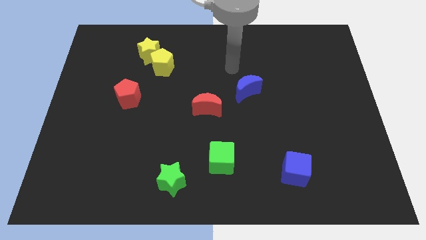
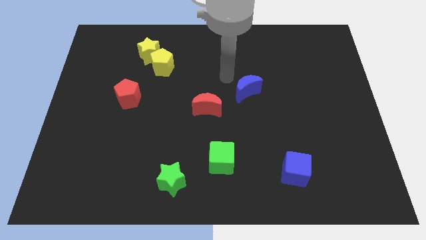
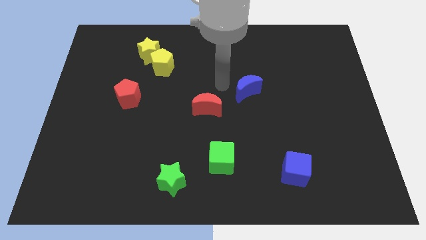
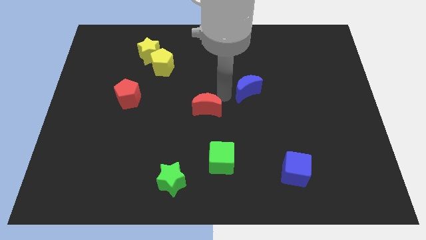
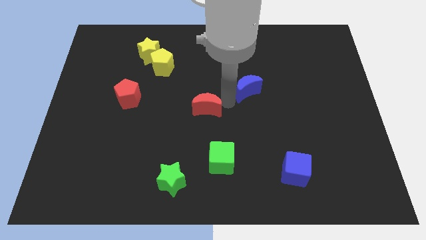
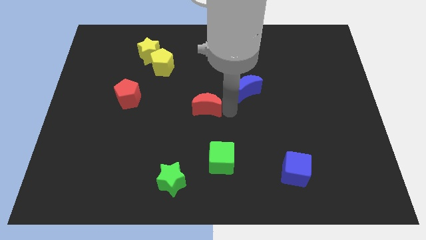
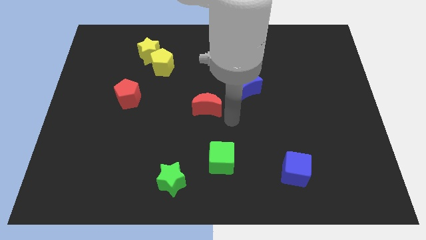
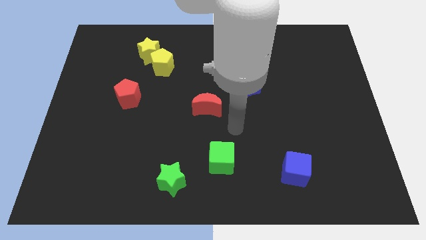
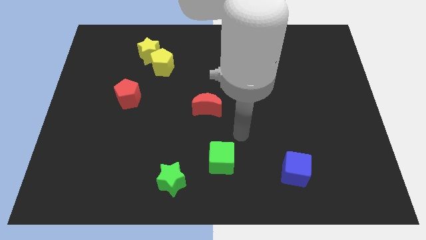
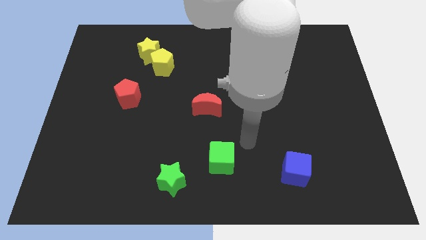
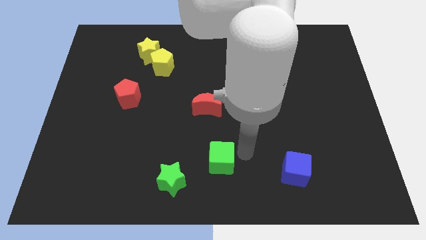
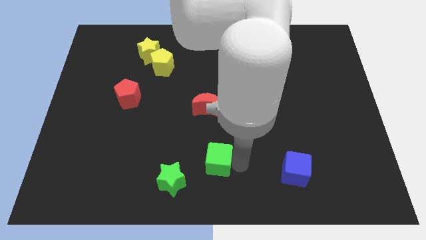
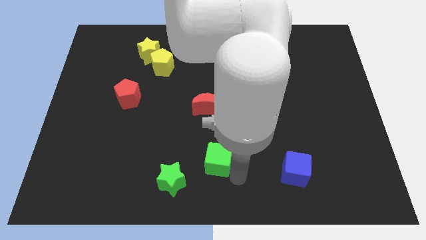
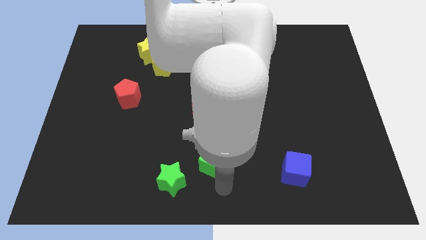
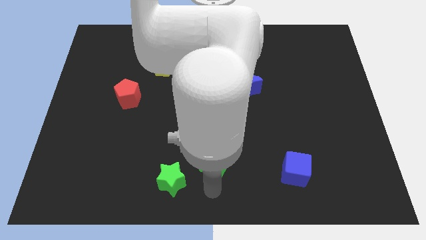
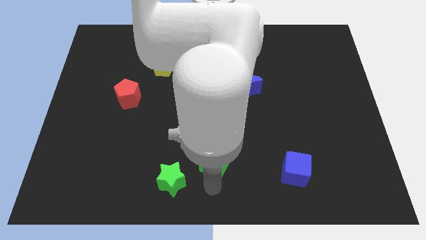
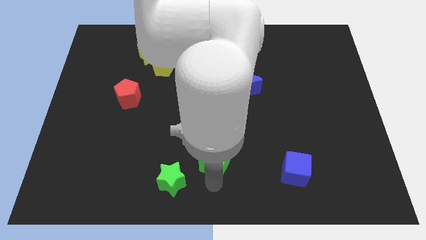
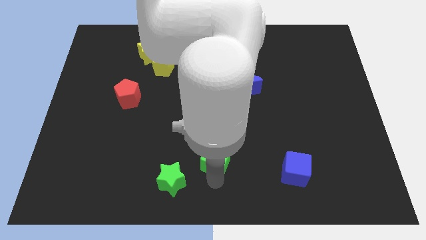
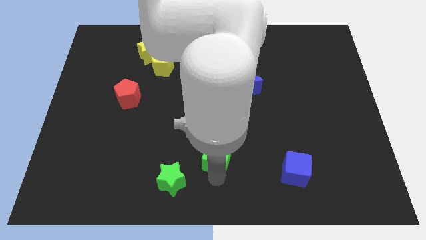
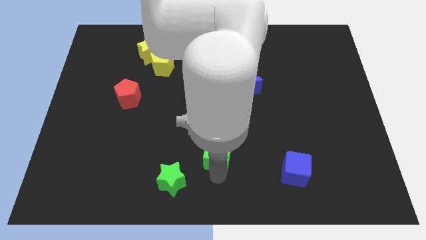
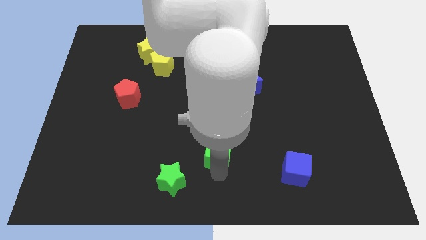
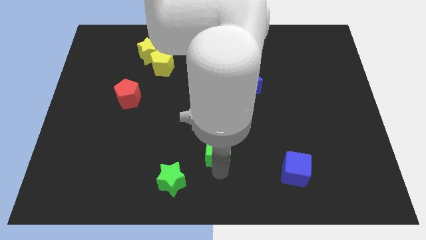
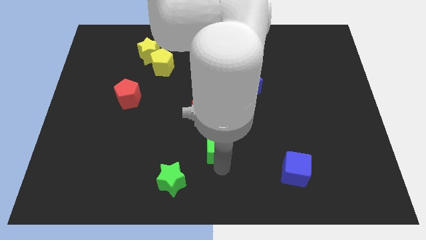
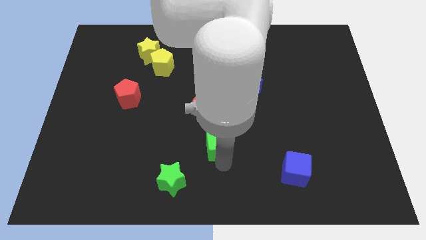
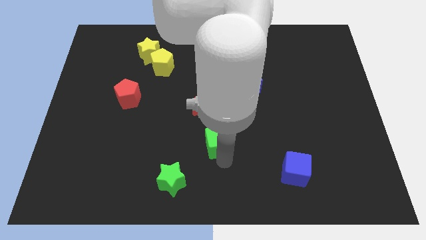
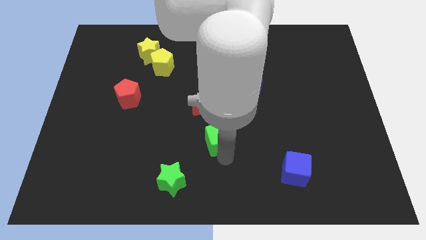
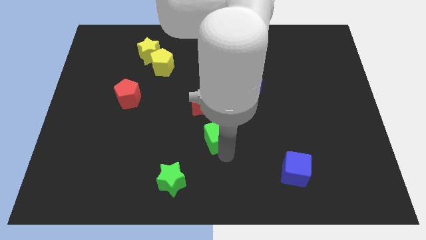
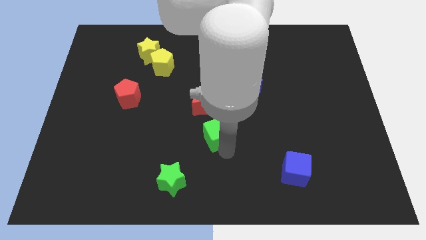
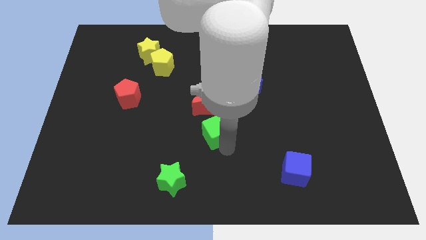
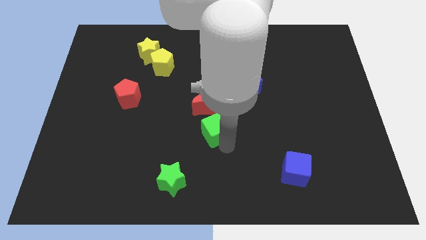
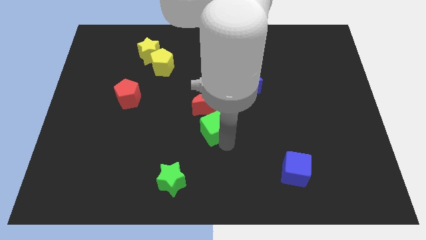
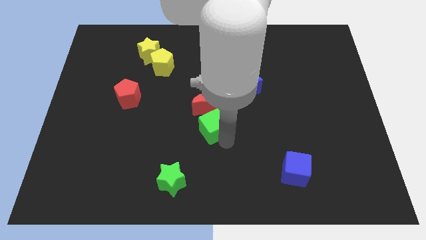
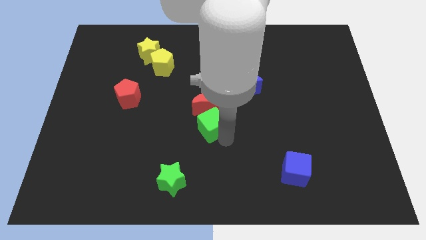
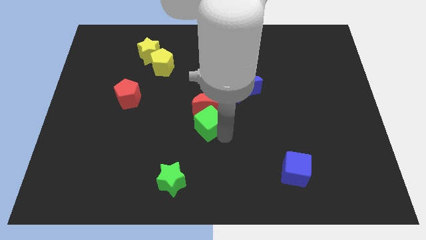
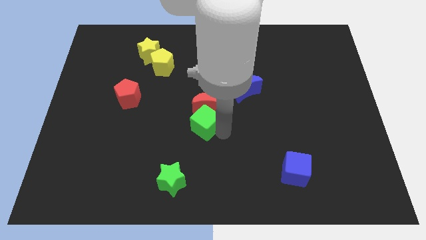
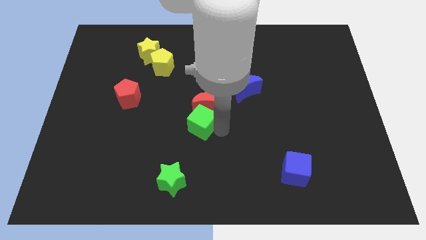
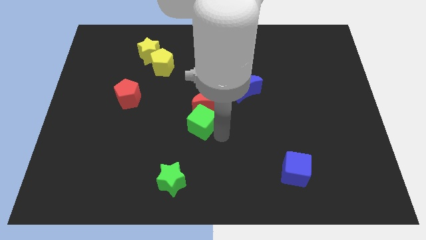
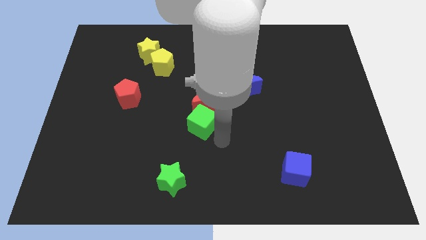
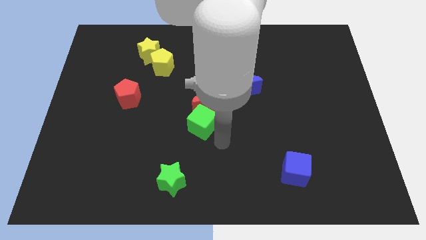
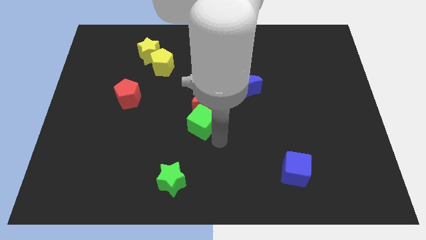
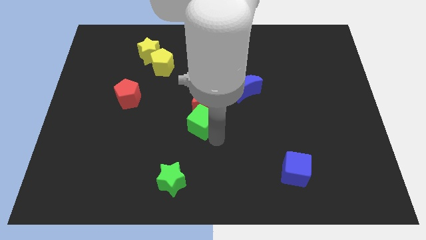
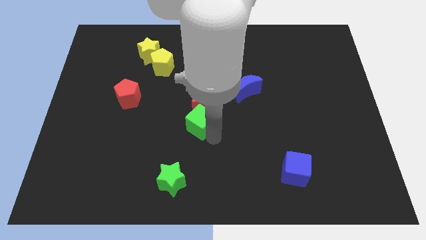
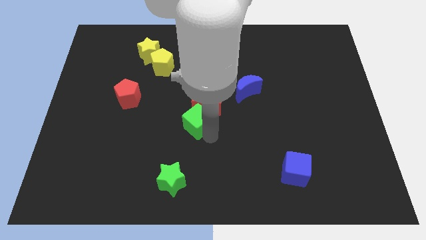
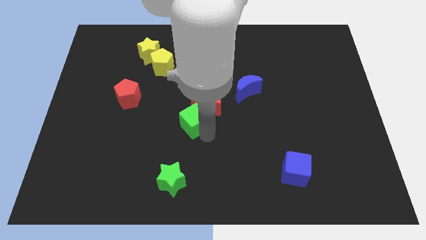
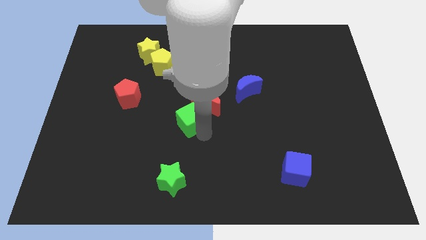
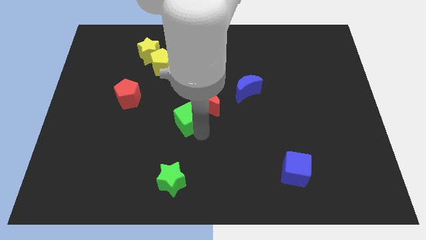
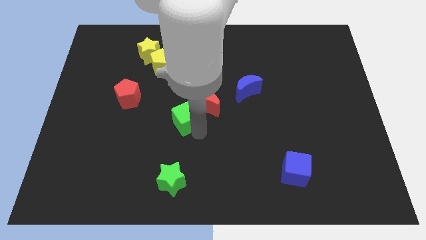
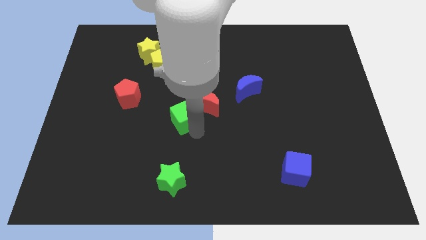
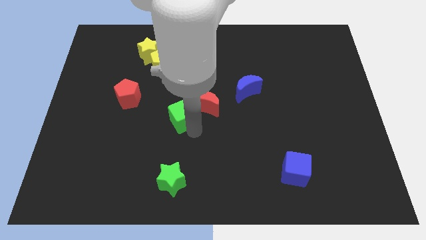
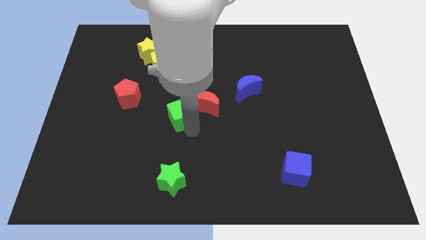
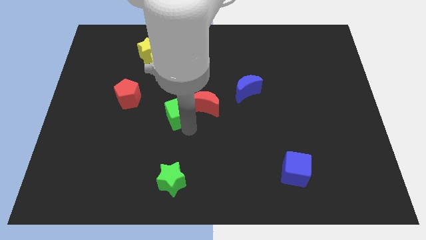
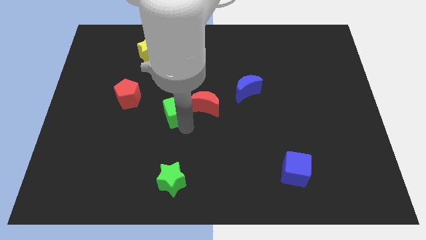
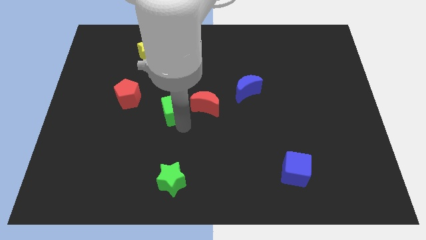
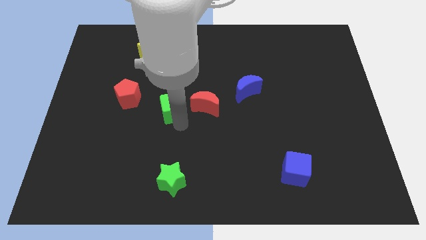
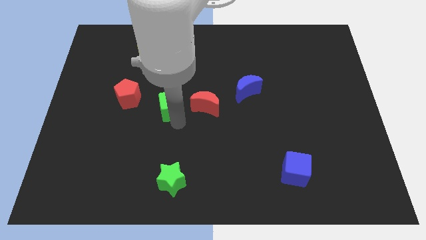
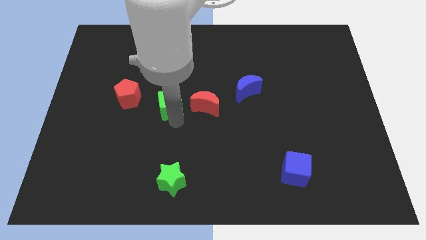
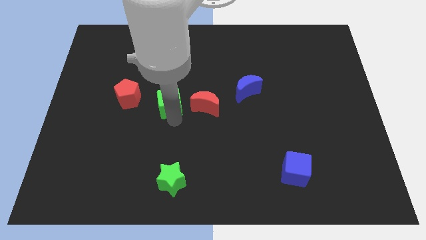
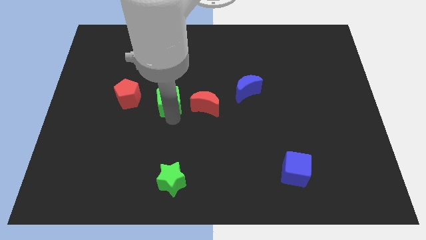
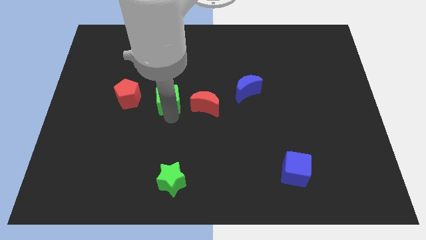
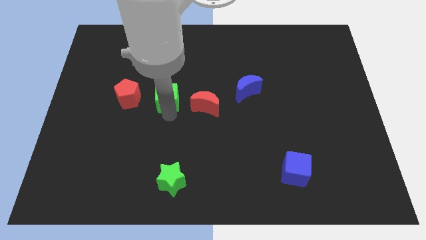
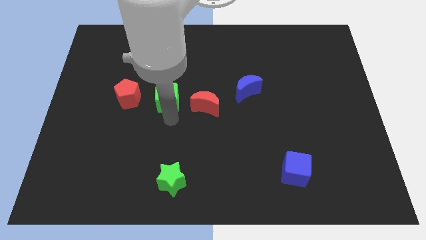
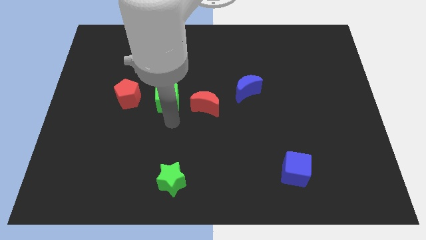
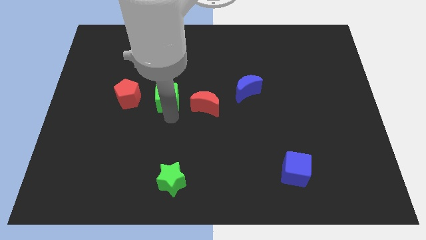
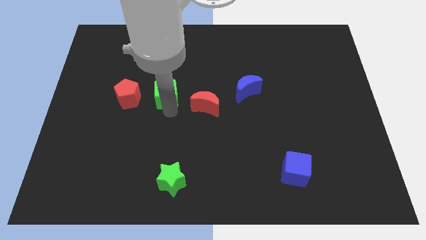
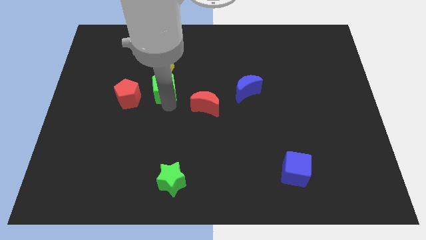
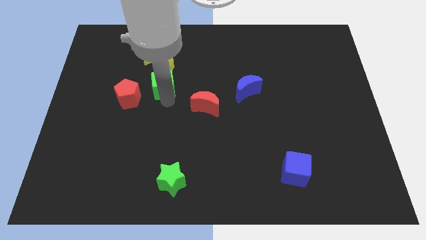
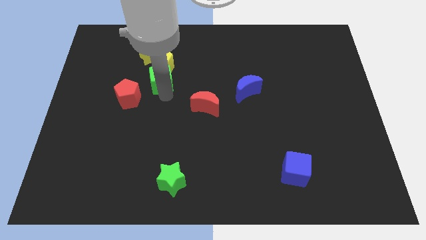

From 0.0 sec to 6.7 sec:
move the green cube to the yellow pentagon

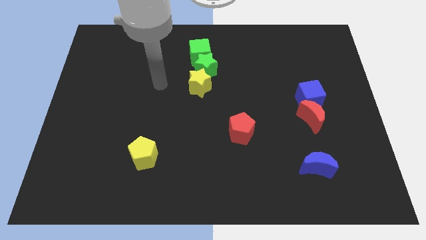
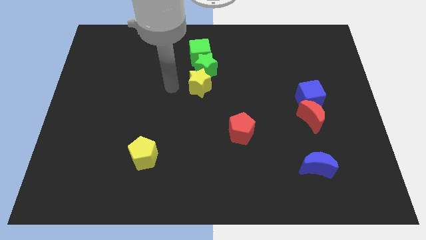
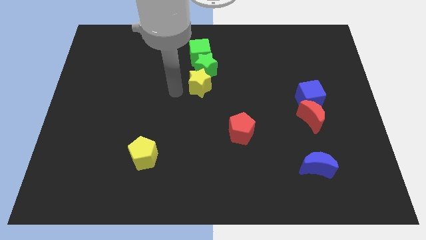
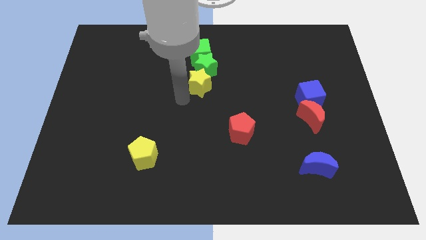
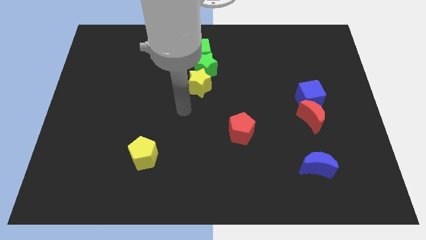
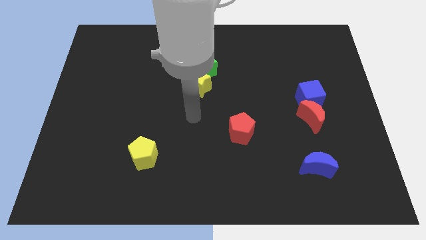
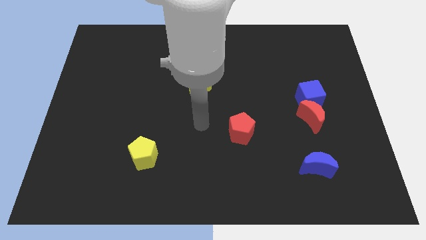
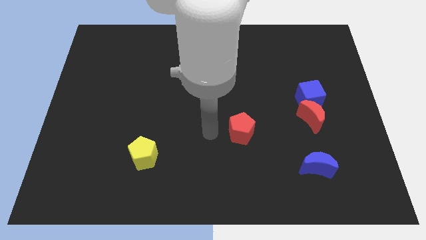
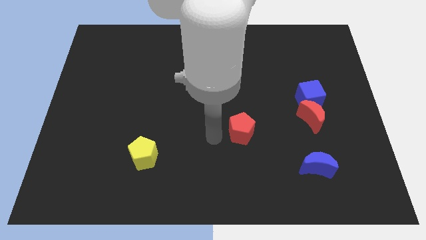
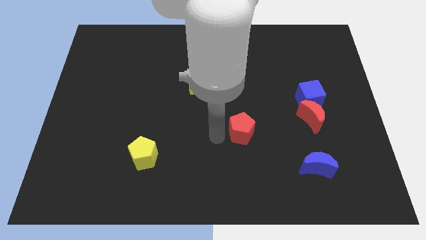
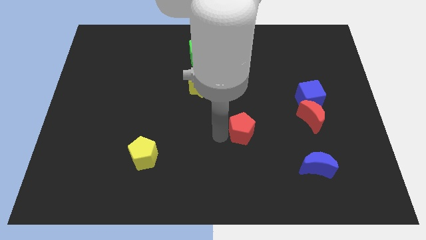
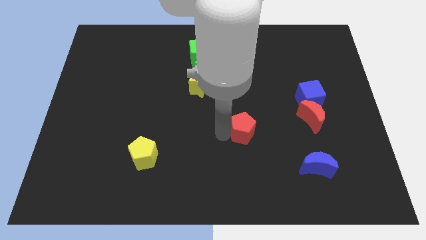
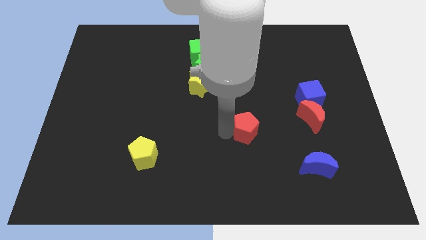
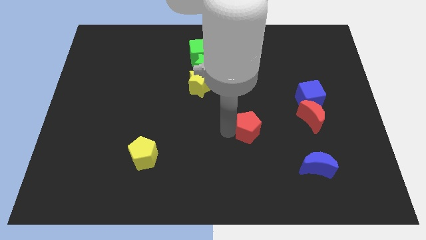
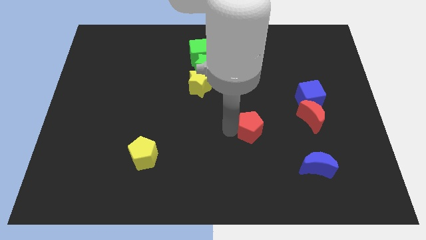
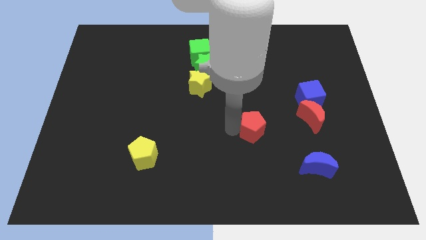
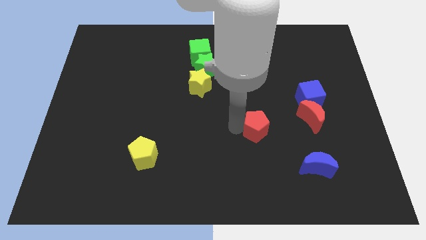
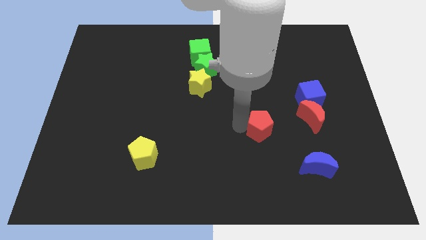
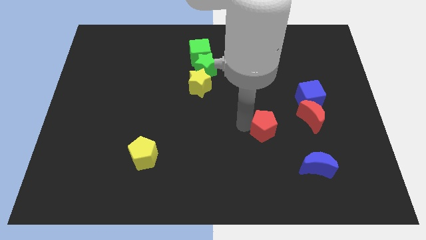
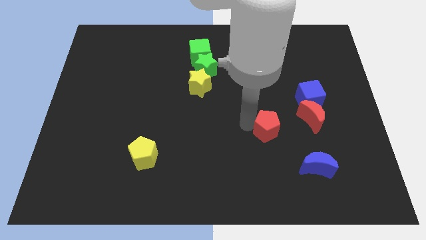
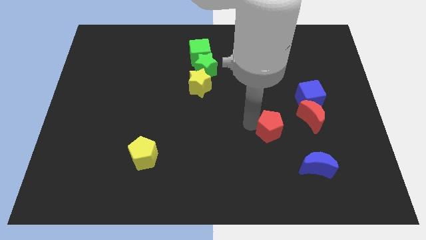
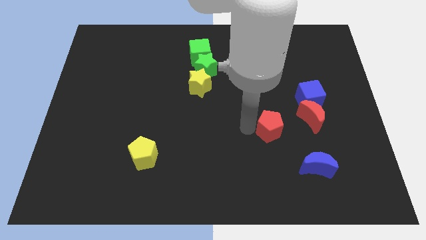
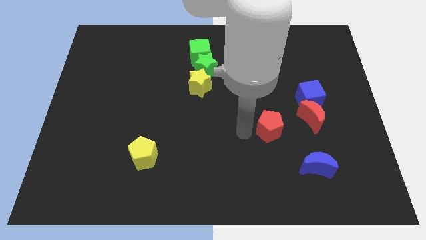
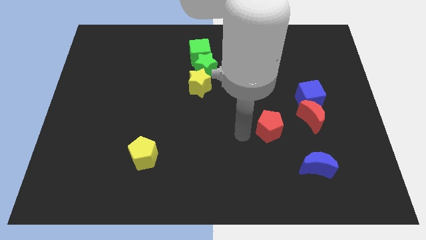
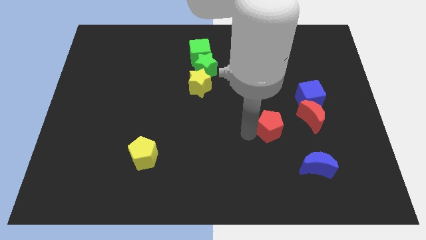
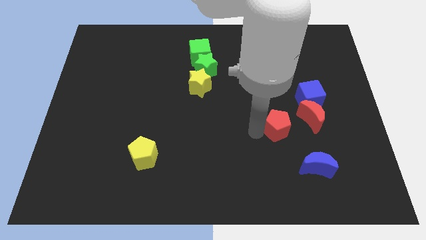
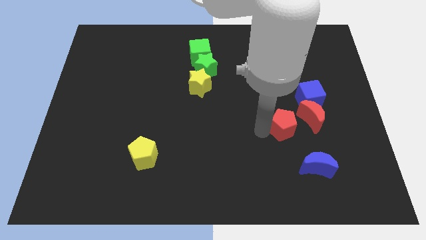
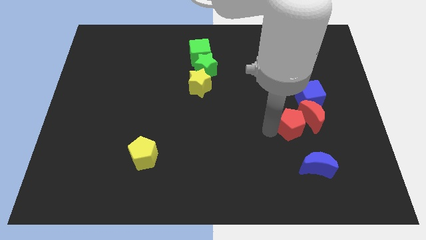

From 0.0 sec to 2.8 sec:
move the red pentagon to the red moon
